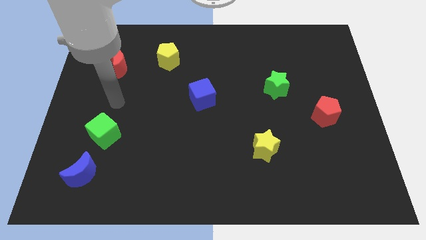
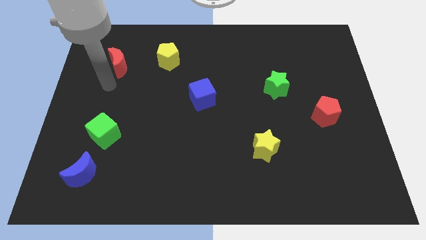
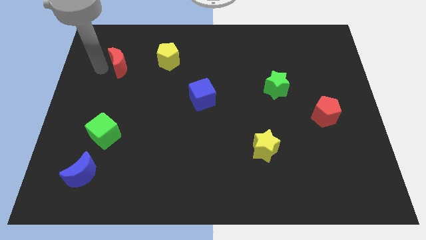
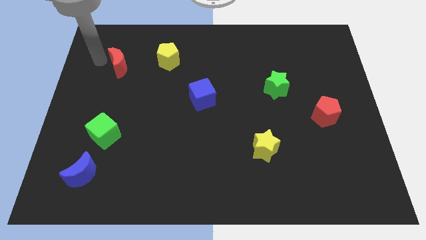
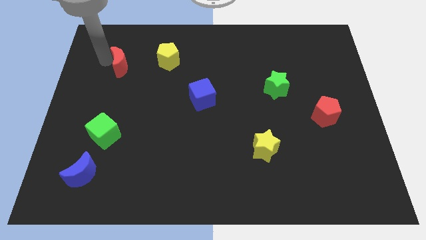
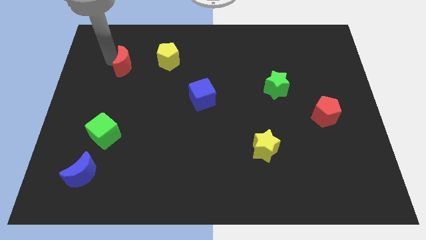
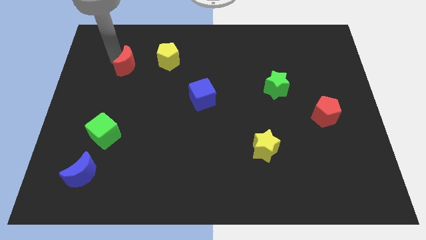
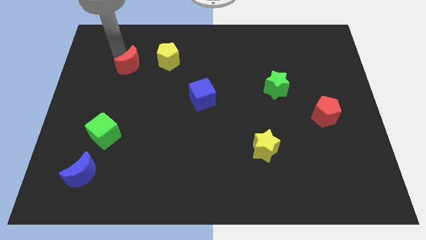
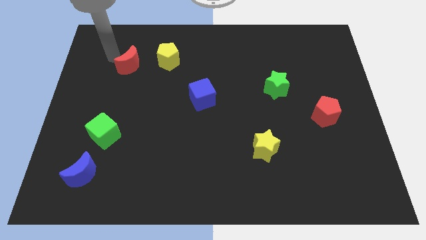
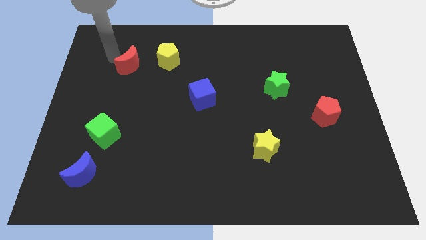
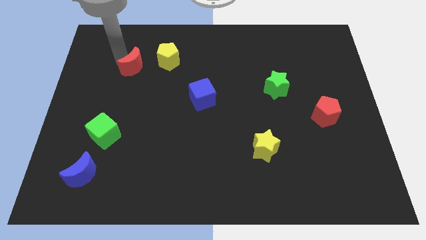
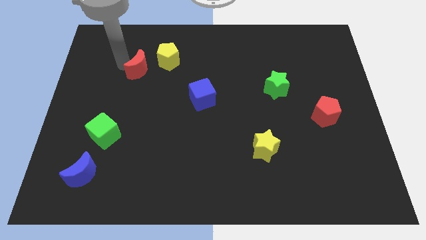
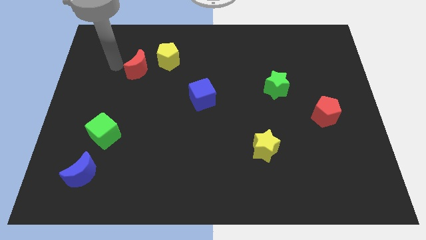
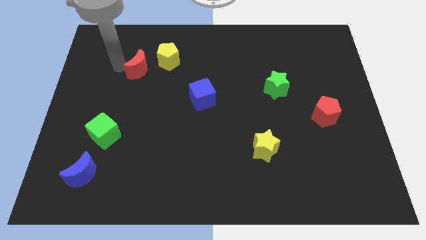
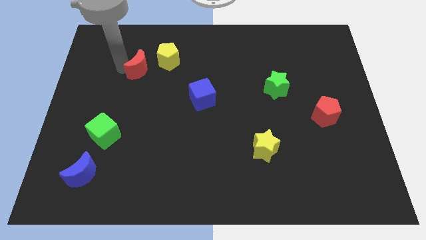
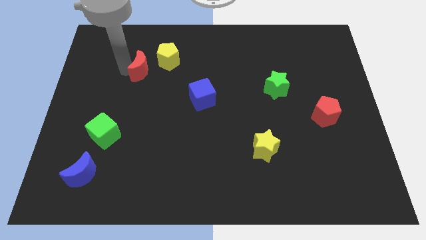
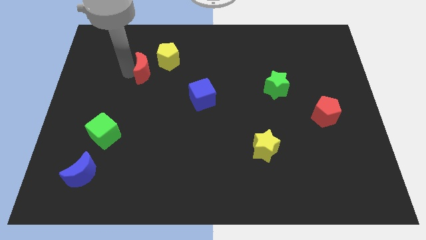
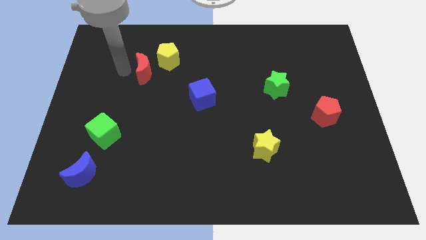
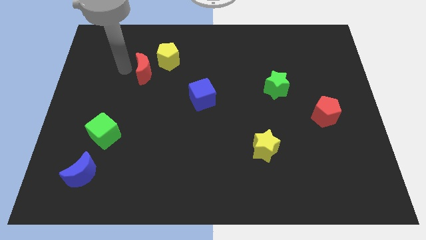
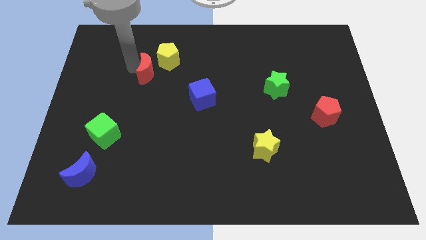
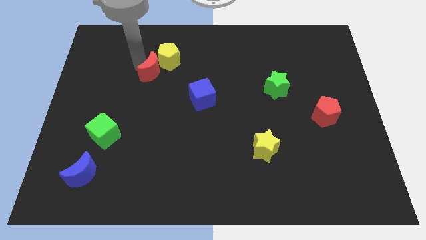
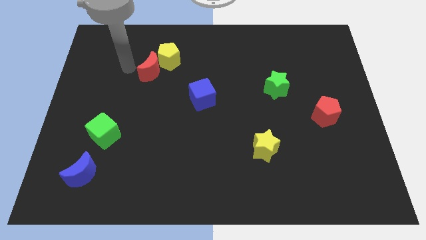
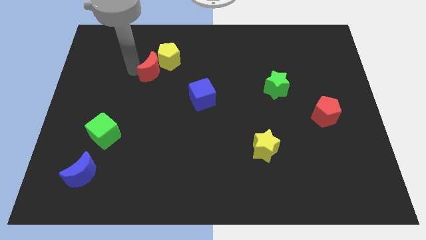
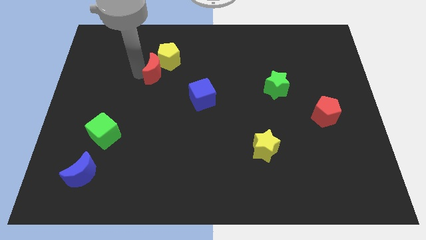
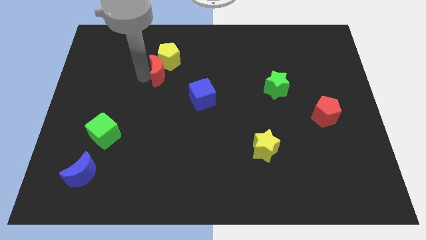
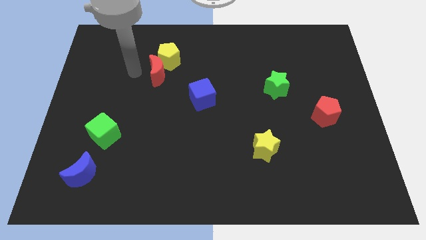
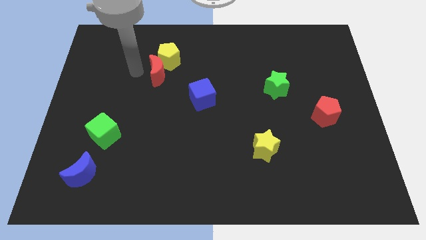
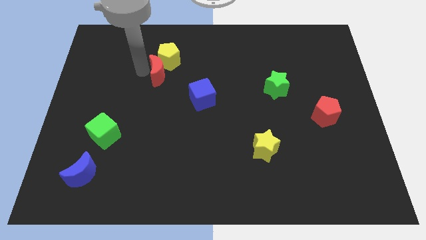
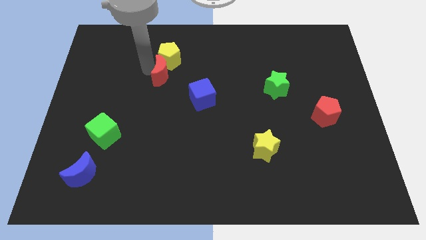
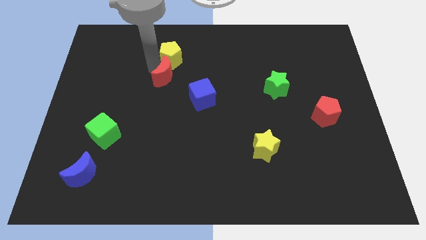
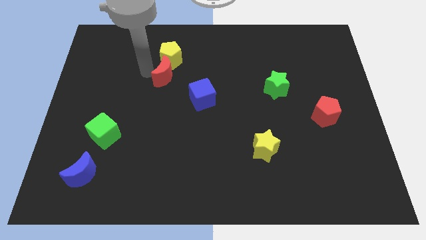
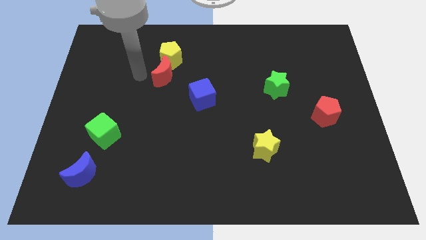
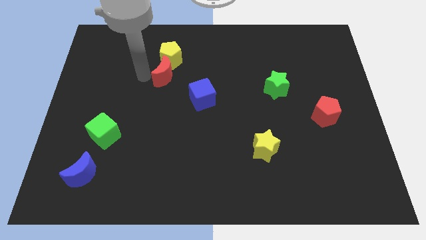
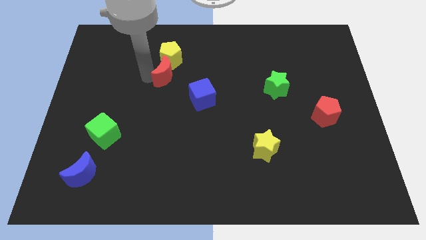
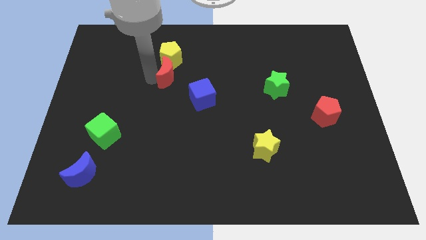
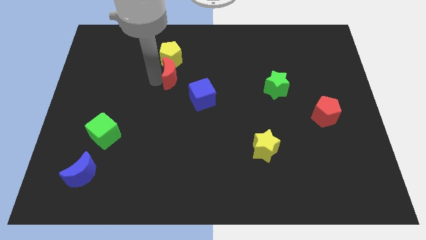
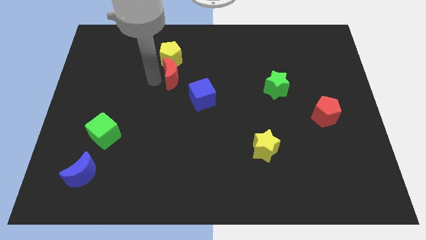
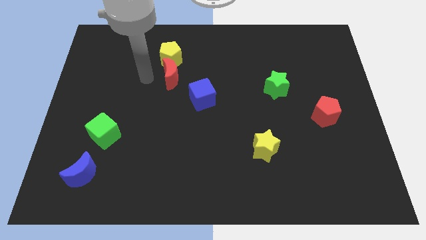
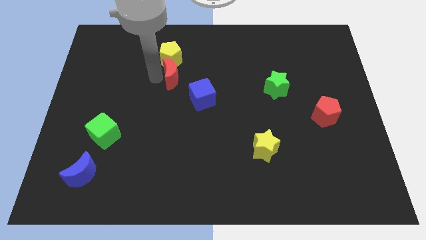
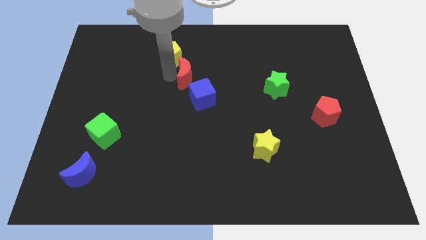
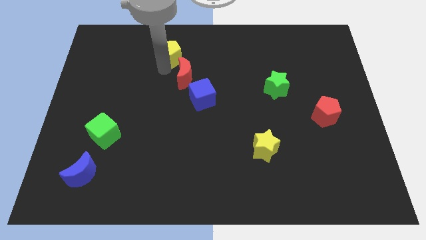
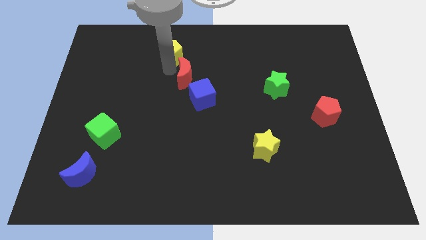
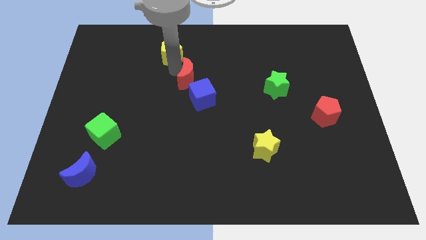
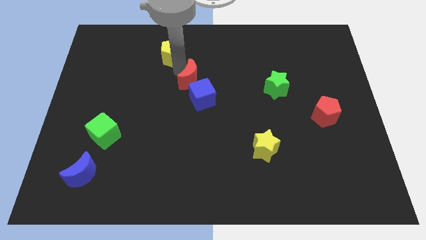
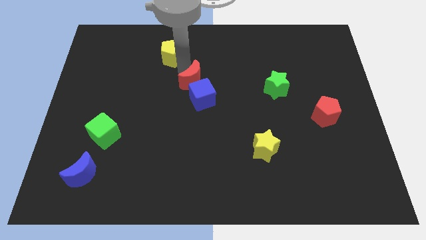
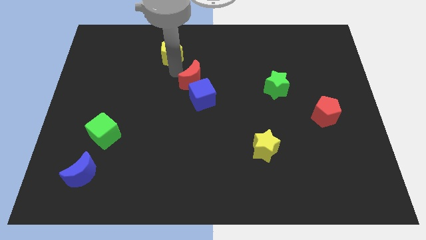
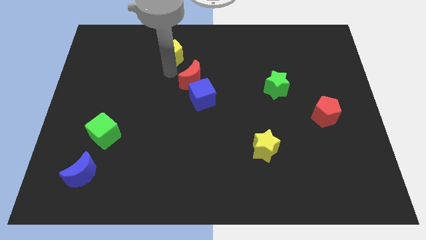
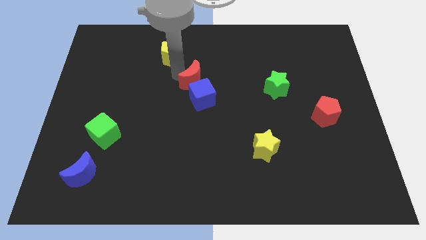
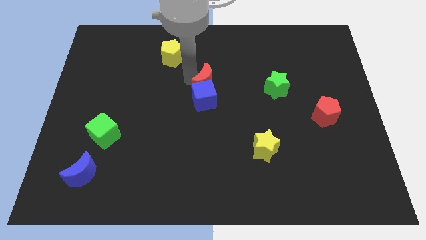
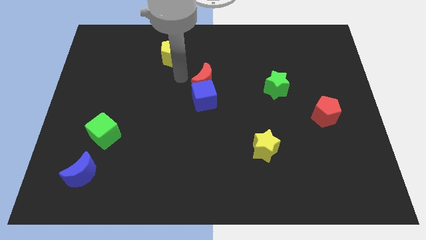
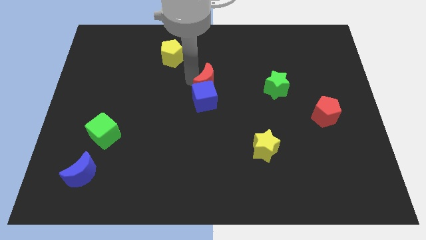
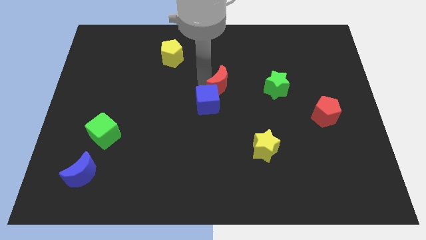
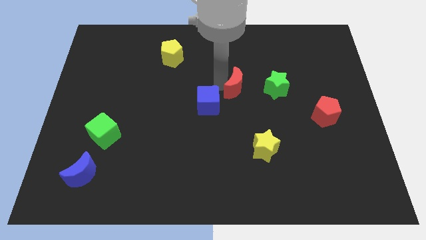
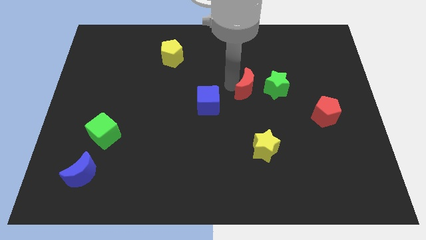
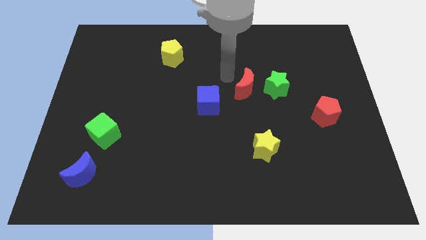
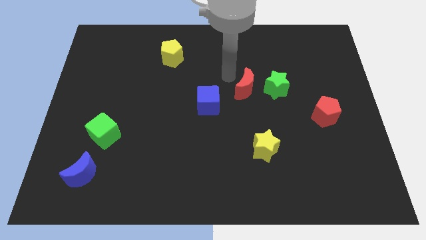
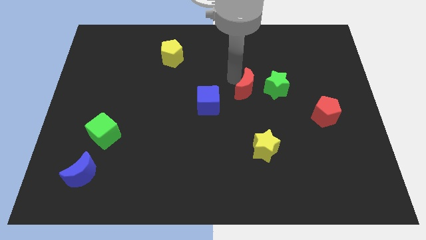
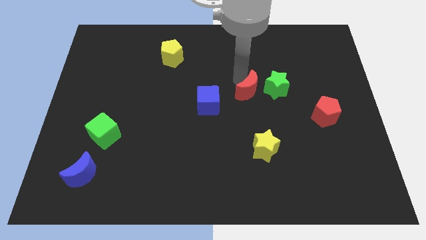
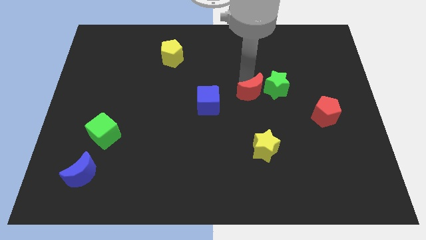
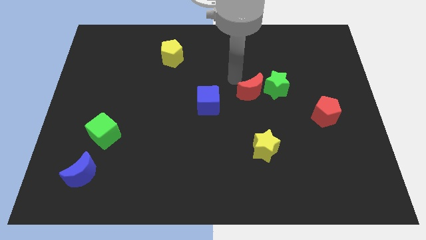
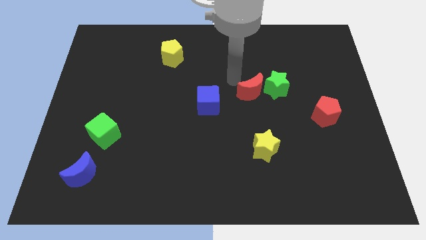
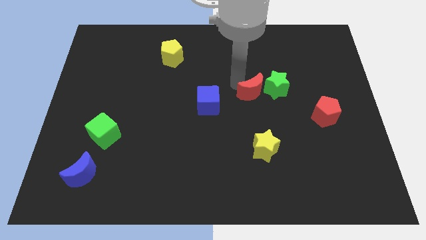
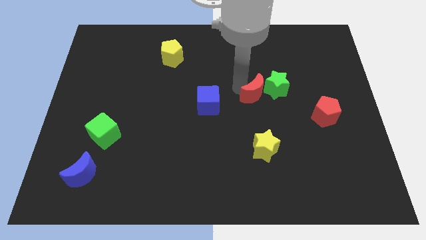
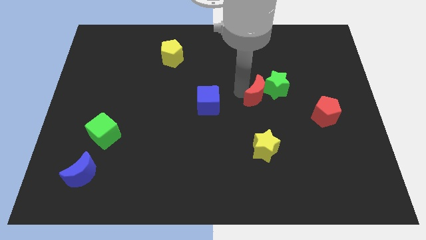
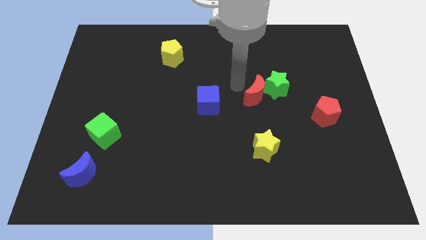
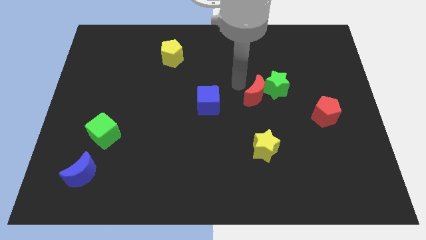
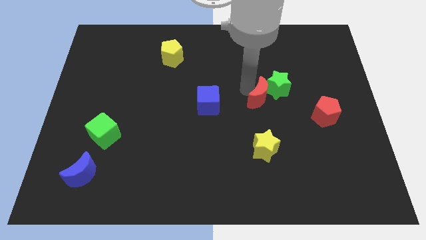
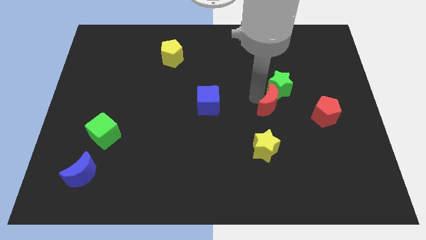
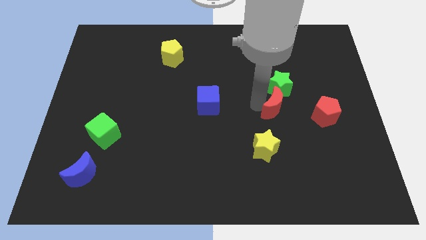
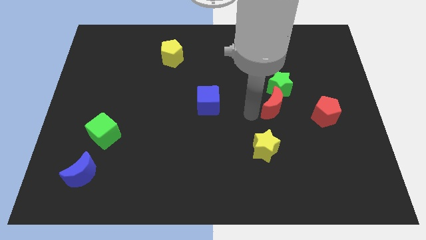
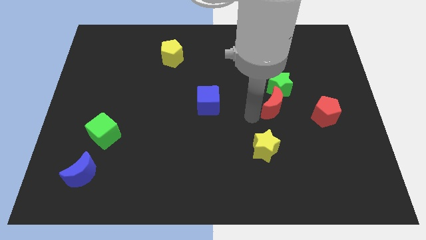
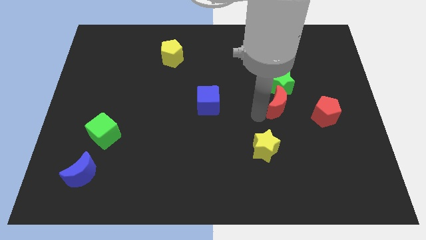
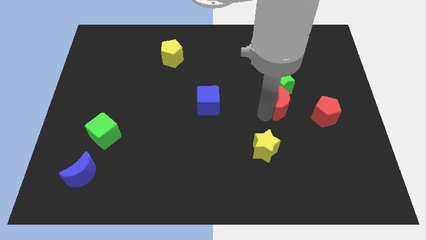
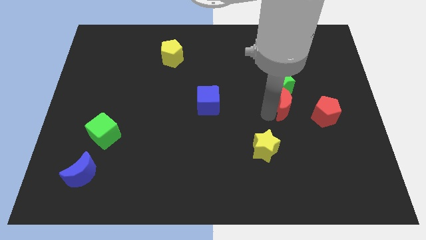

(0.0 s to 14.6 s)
put the red moon to the top left side of the red pentagon

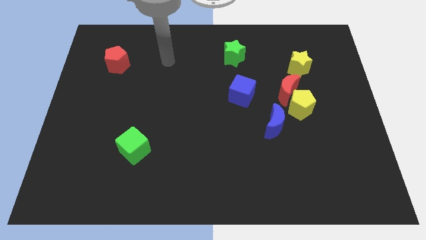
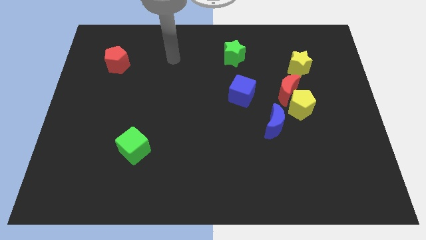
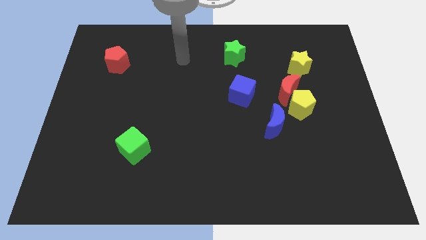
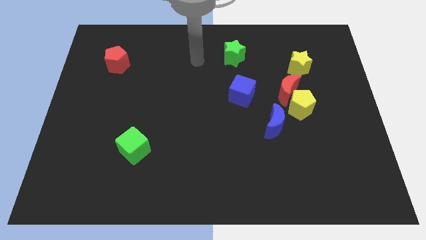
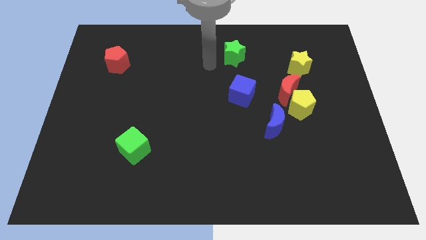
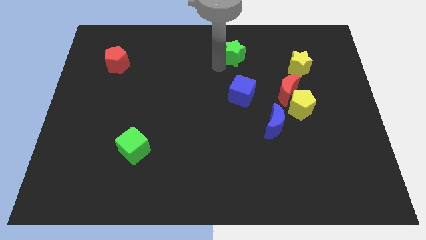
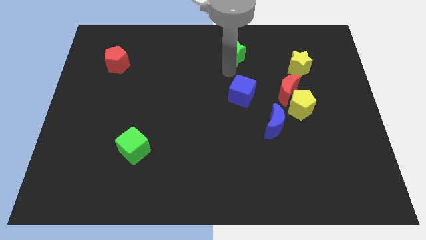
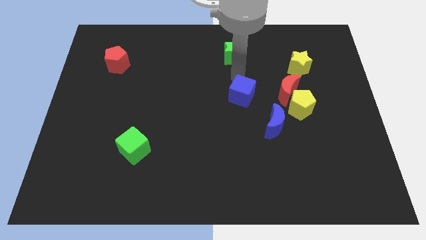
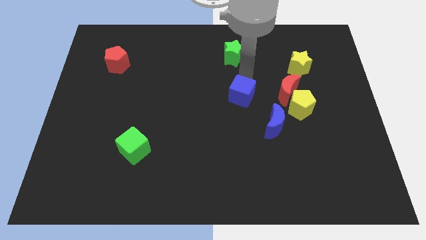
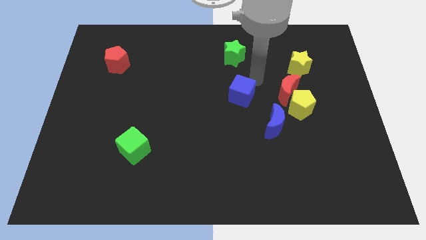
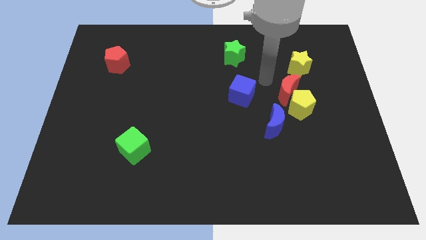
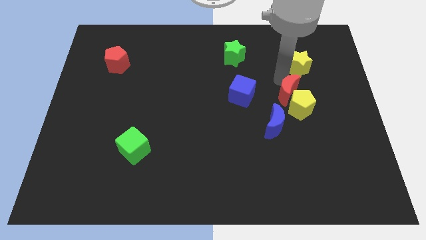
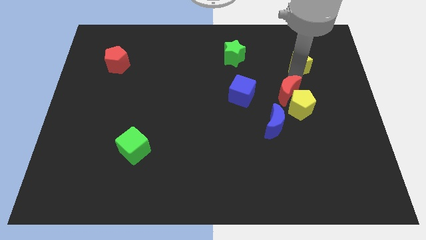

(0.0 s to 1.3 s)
push the red moon to the left of the yellow pentagon
